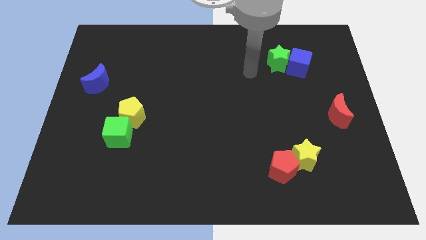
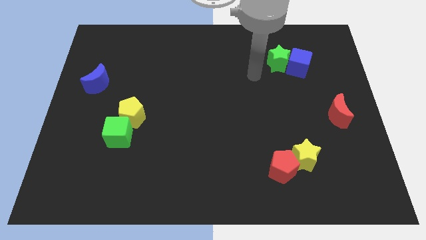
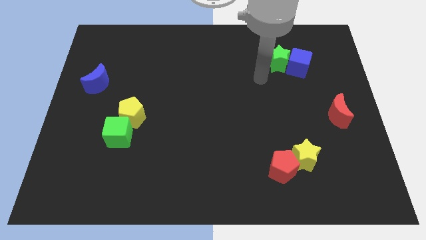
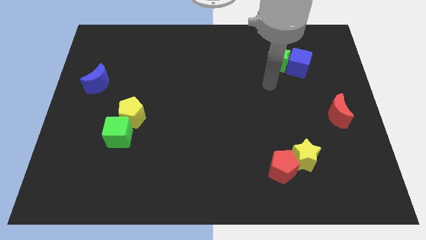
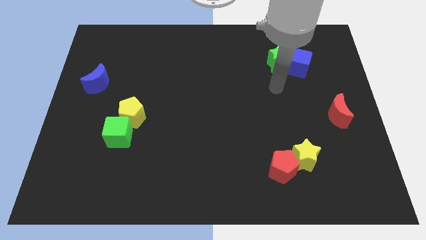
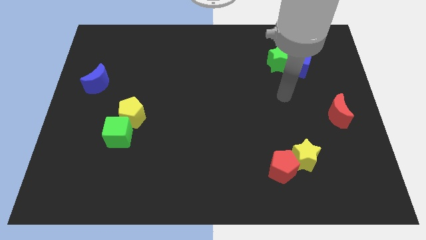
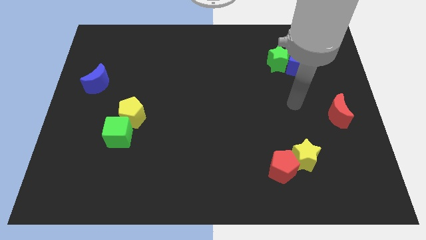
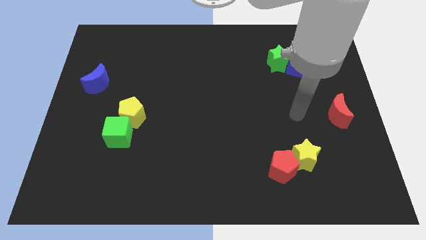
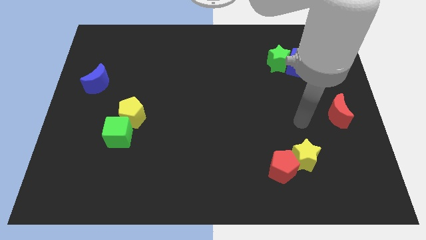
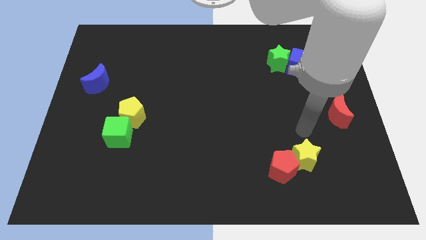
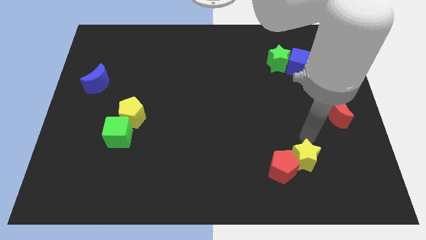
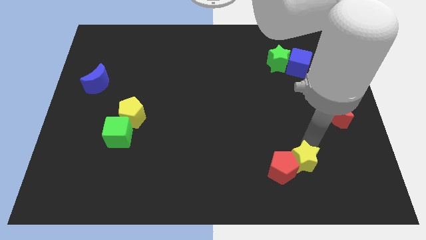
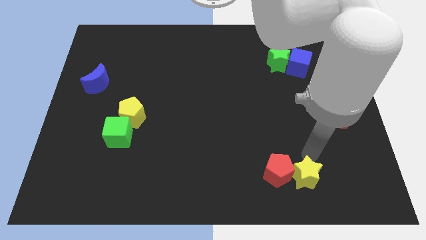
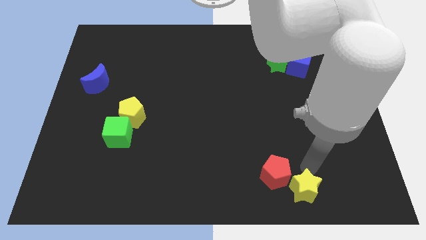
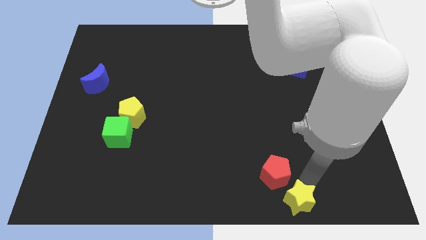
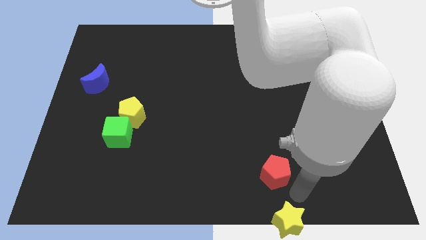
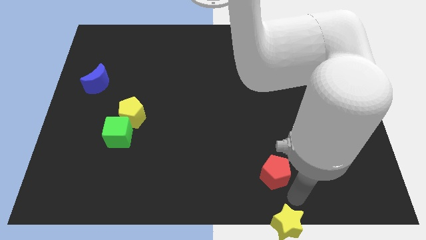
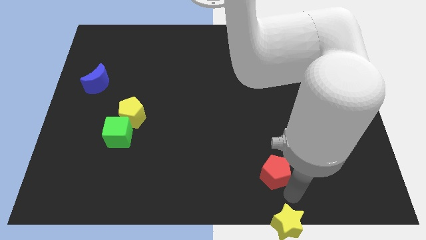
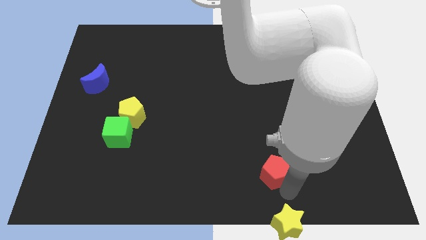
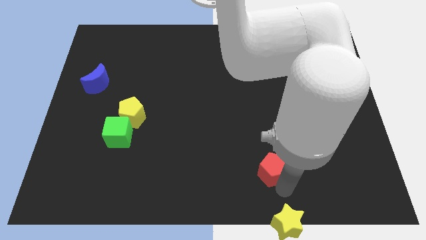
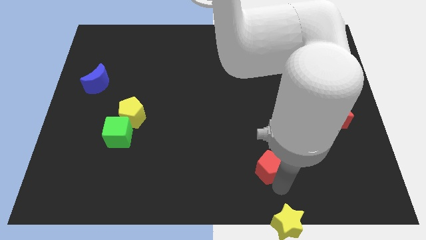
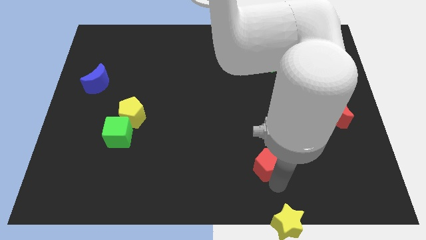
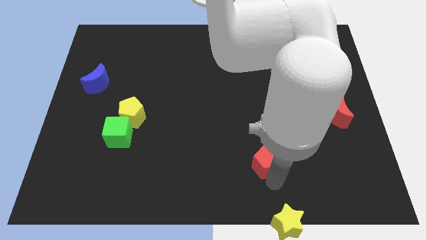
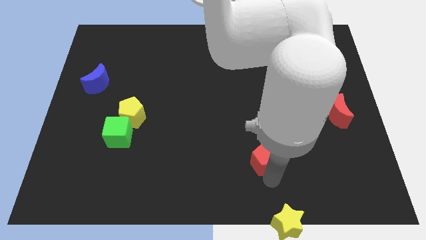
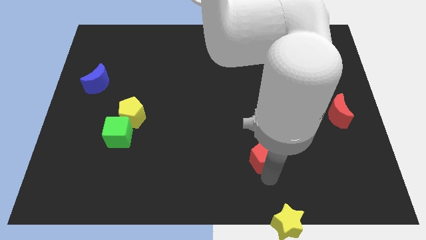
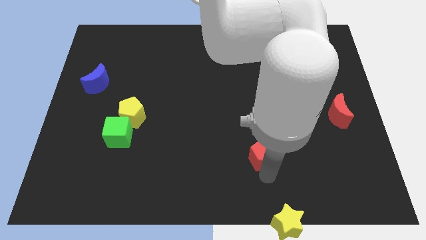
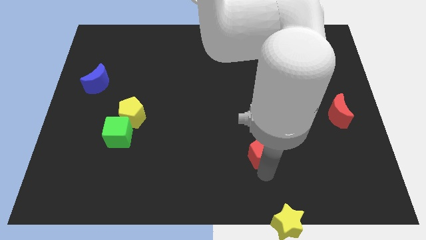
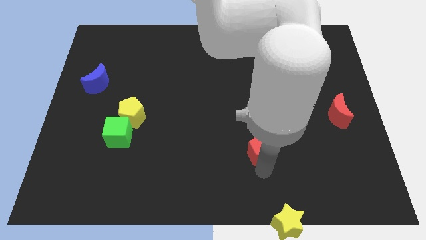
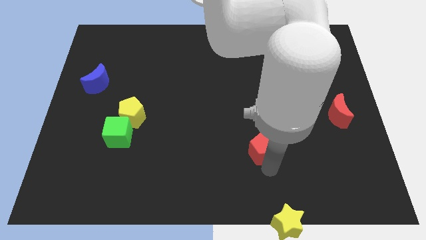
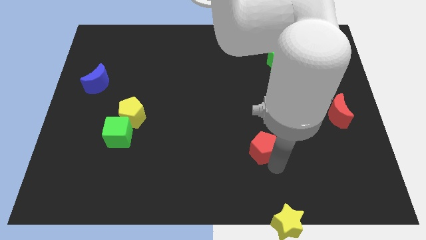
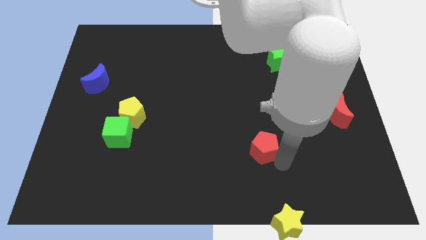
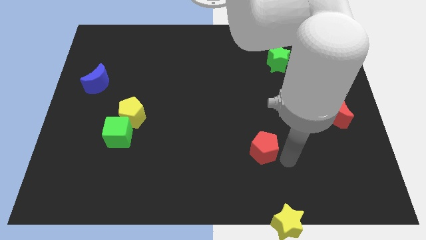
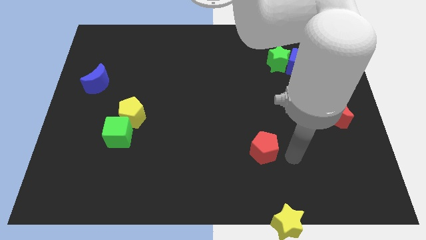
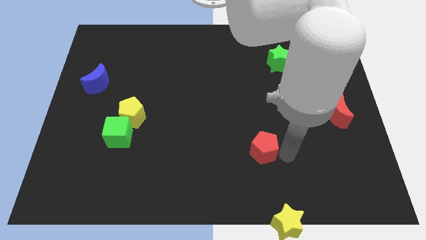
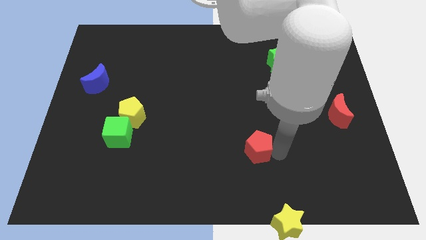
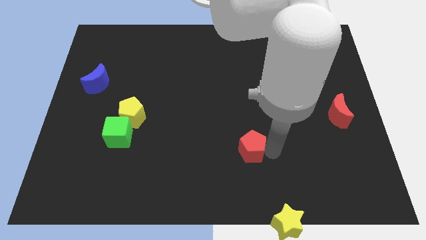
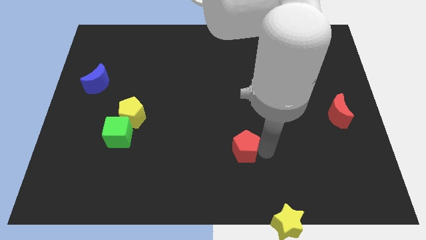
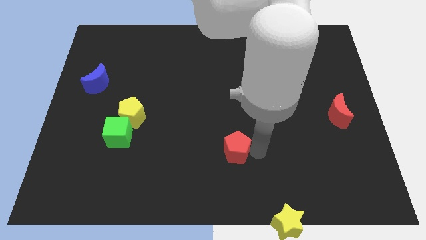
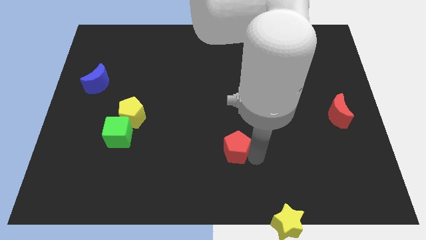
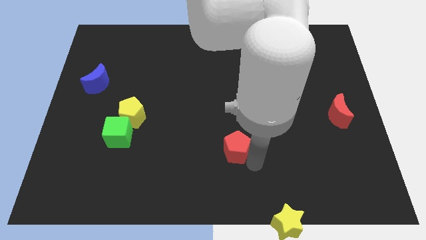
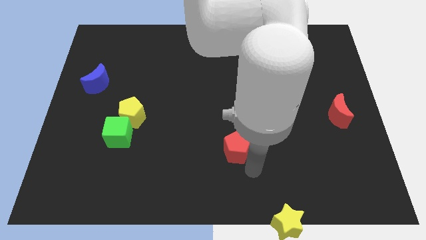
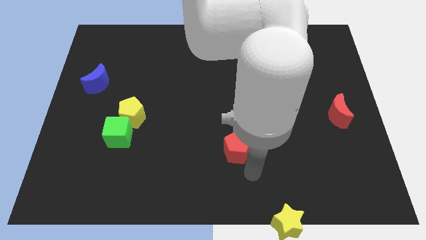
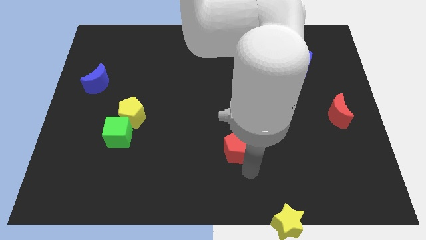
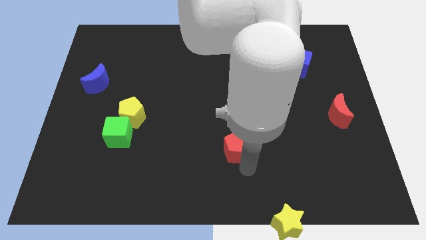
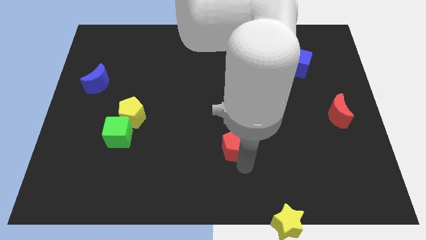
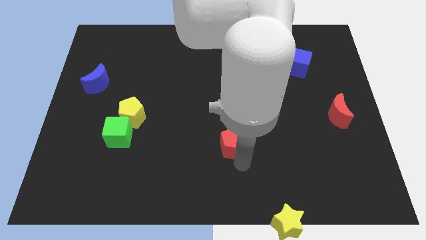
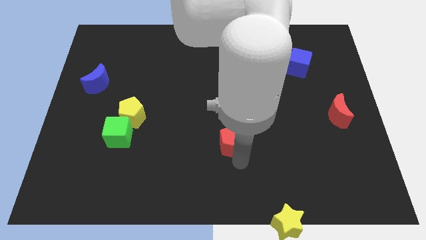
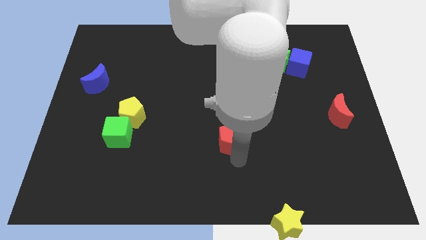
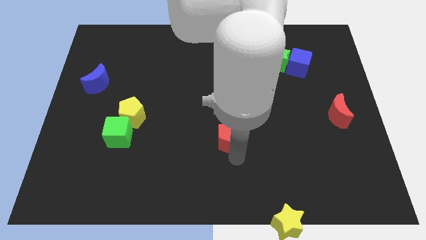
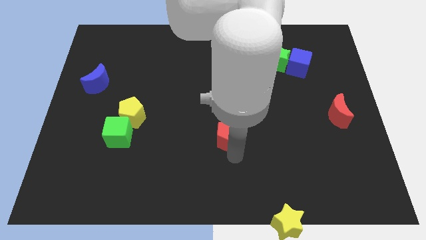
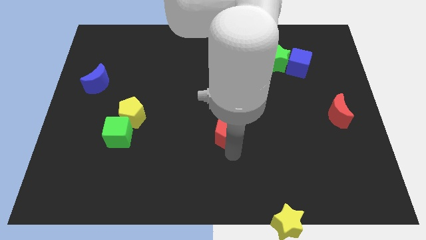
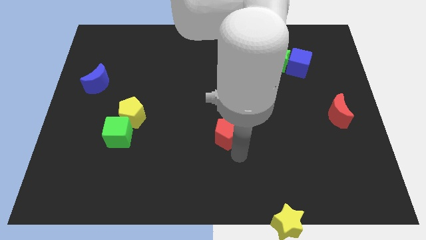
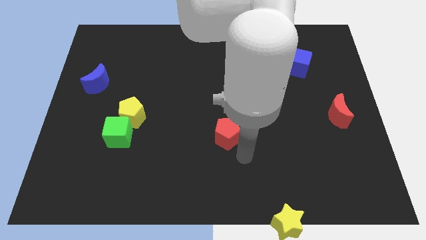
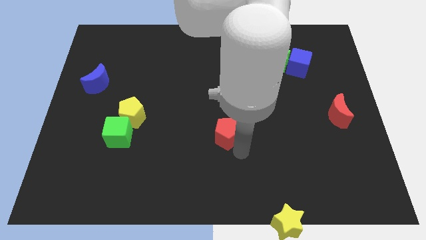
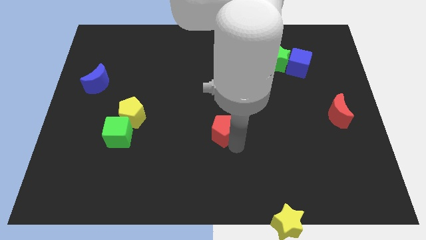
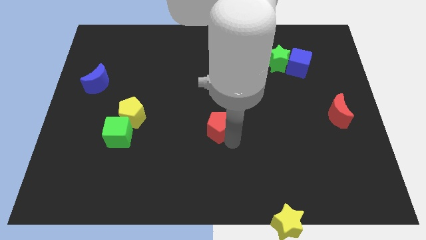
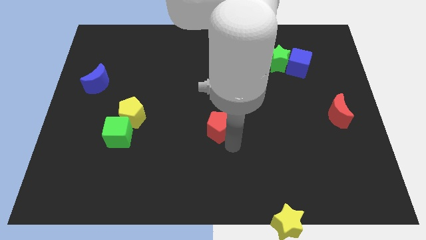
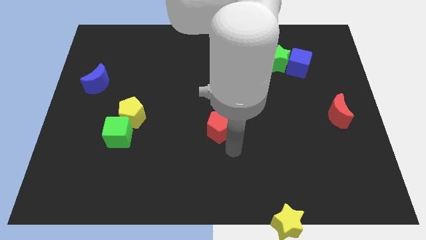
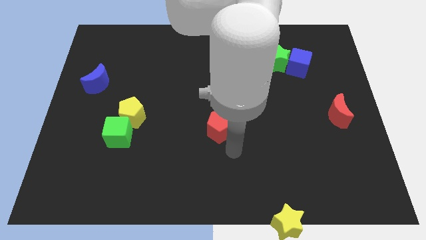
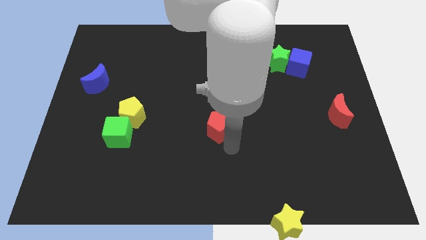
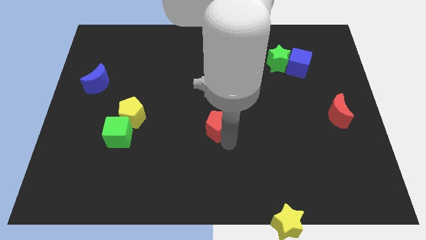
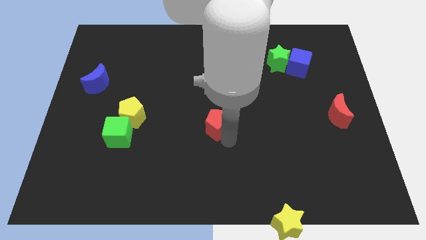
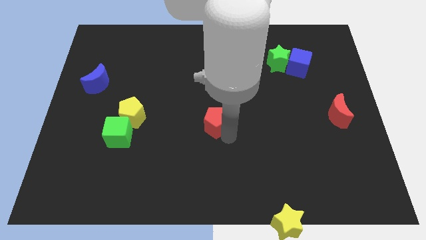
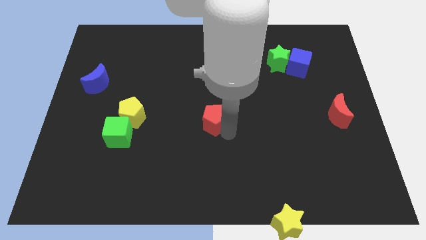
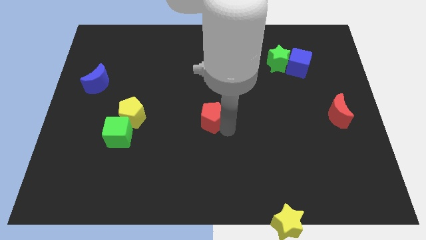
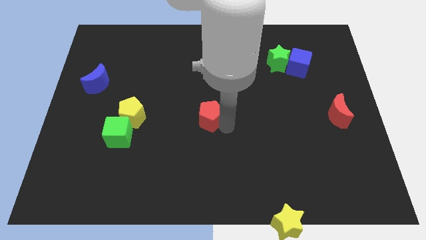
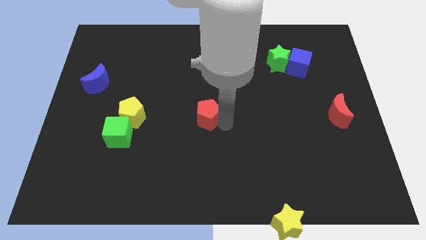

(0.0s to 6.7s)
move the red pentagon up and then left

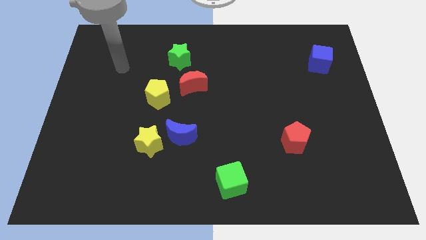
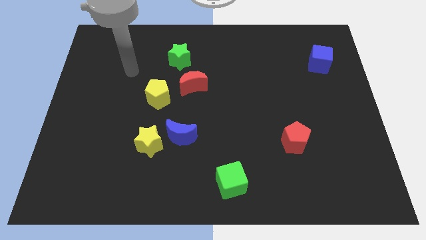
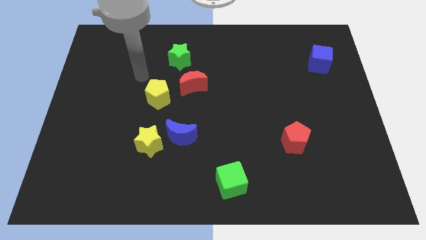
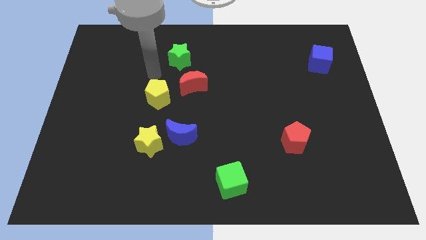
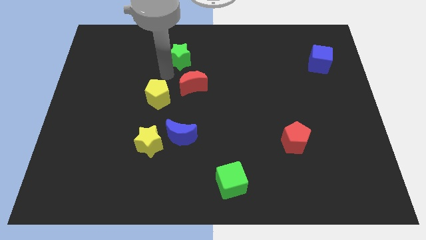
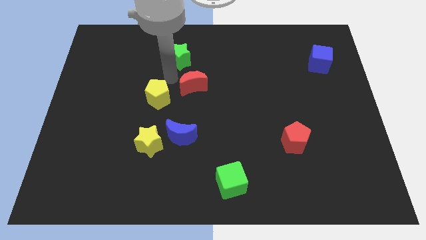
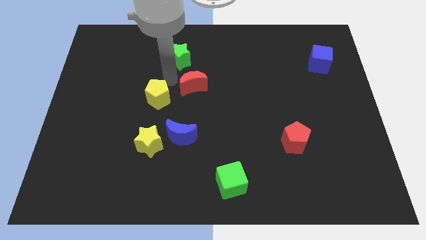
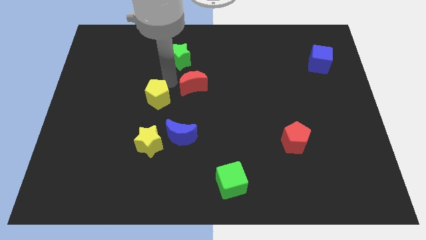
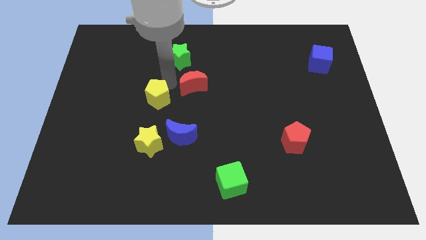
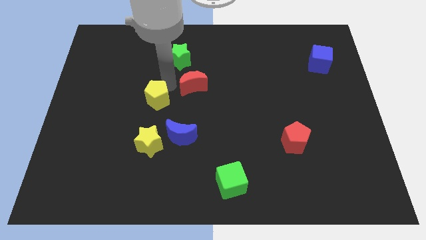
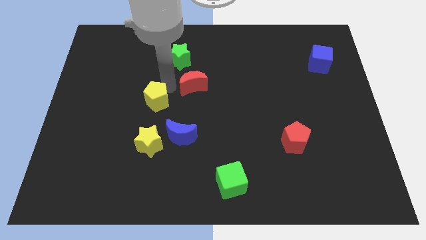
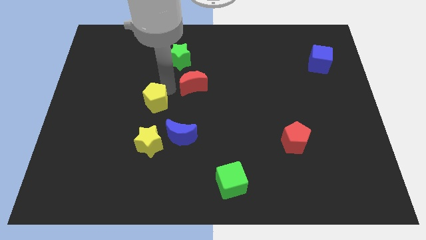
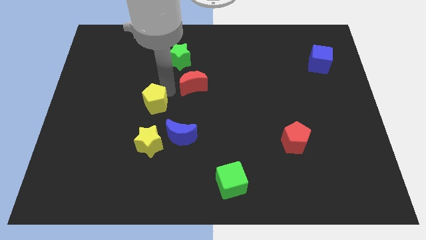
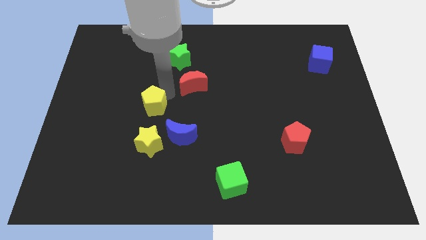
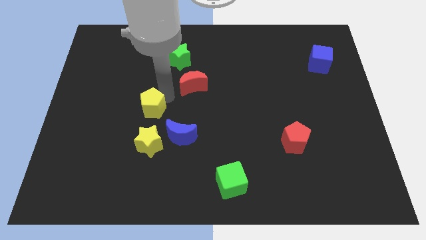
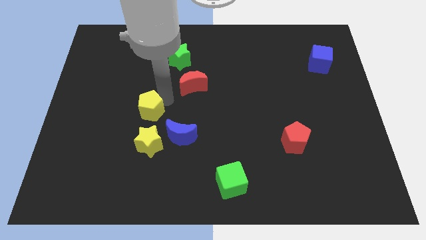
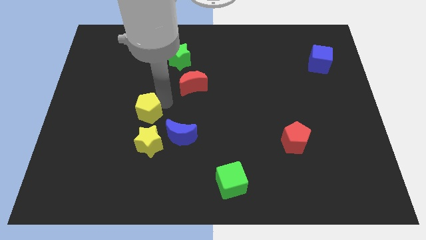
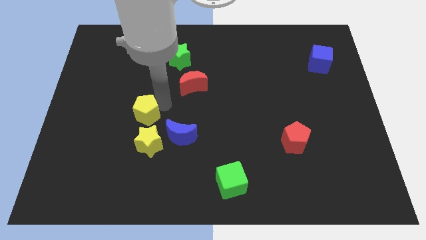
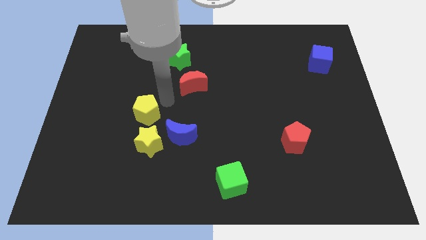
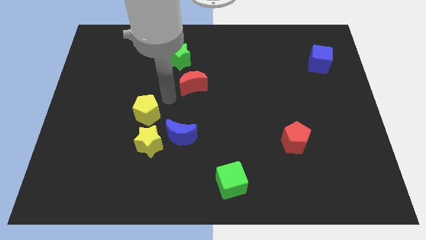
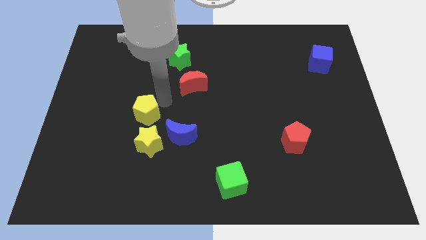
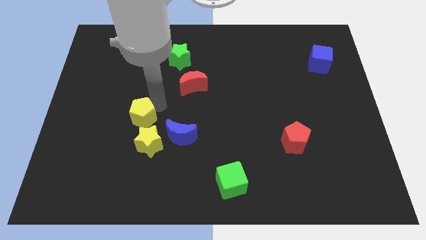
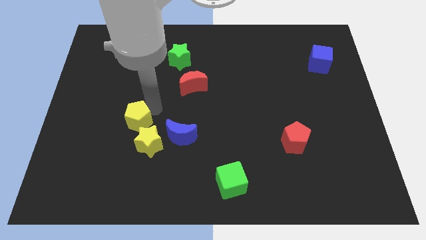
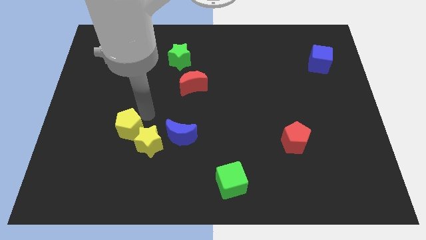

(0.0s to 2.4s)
move the yellow pentagon down slightly
